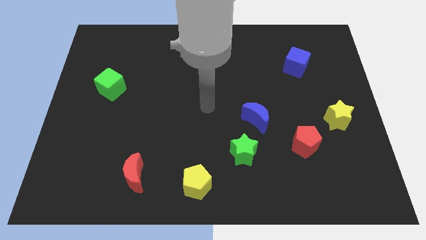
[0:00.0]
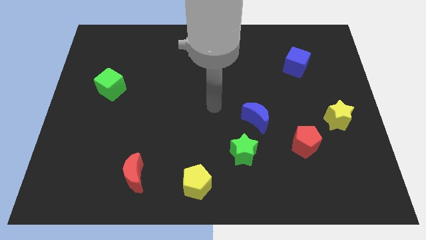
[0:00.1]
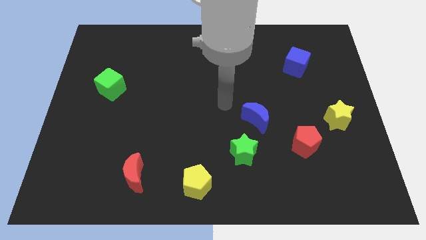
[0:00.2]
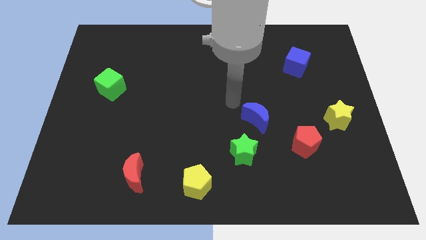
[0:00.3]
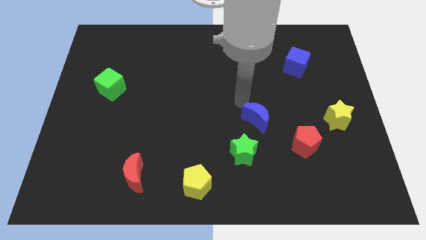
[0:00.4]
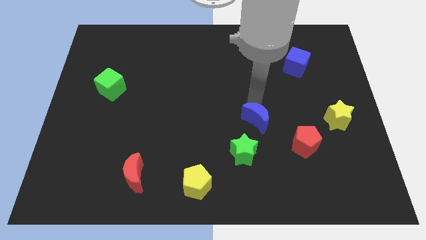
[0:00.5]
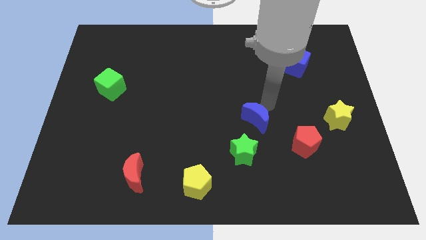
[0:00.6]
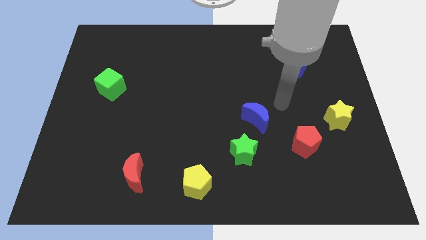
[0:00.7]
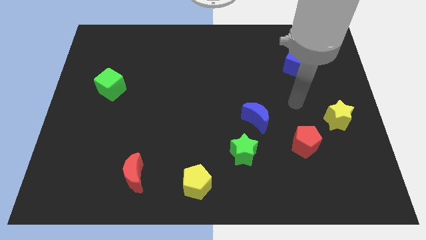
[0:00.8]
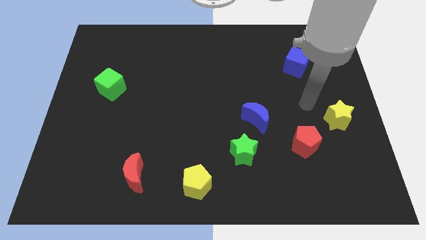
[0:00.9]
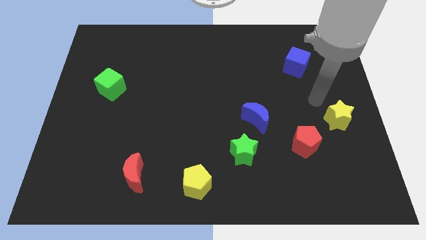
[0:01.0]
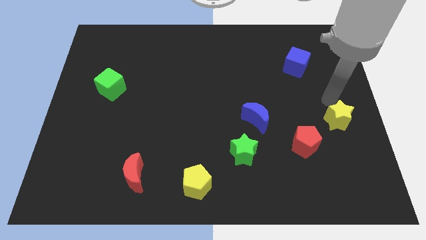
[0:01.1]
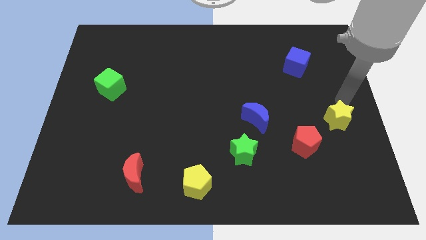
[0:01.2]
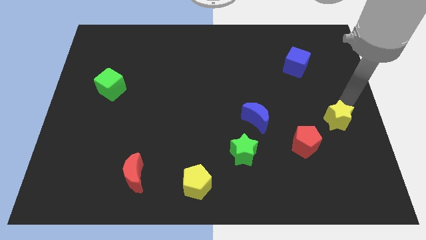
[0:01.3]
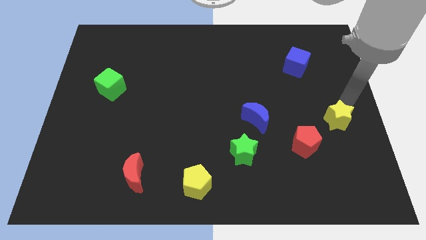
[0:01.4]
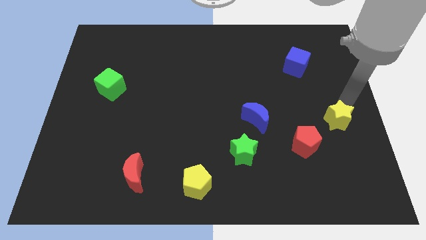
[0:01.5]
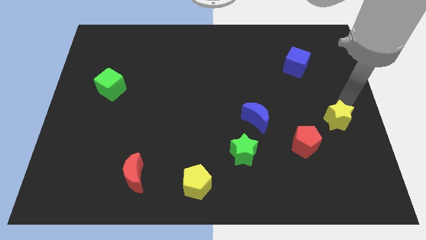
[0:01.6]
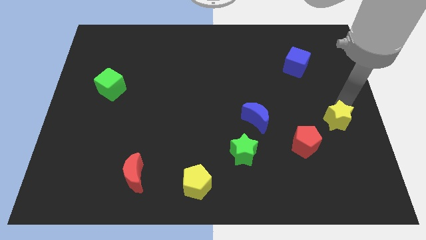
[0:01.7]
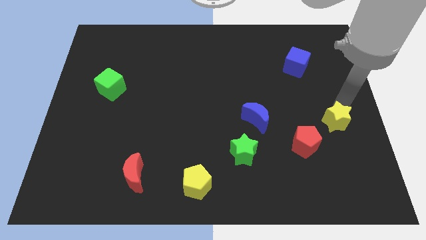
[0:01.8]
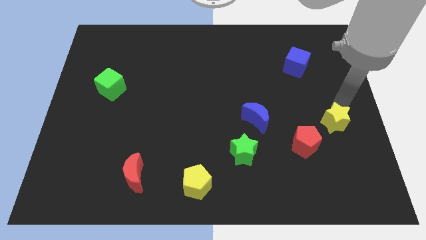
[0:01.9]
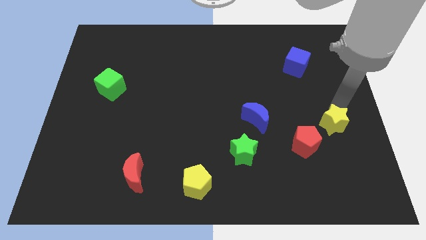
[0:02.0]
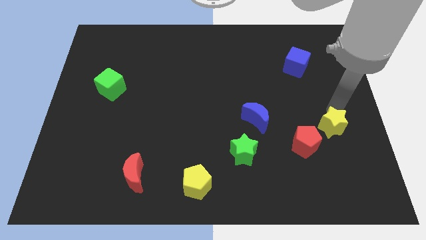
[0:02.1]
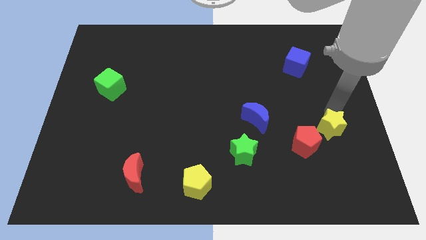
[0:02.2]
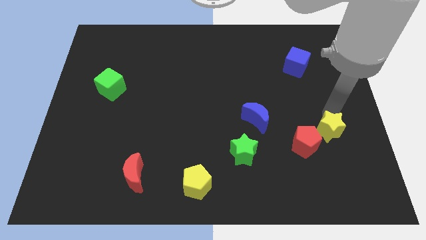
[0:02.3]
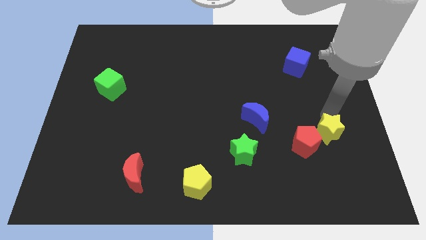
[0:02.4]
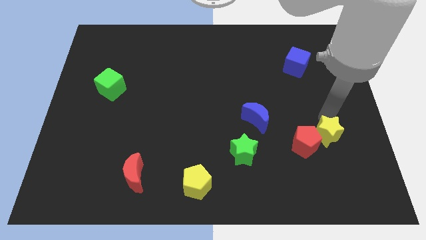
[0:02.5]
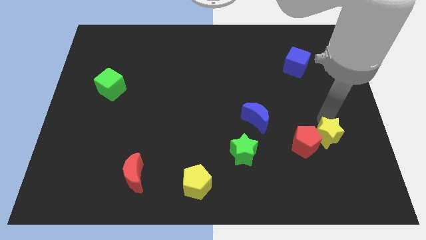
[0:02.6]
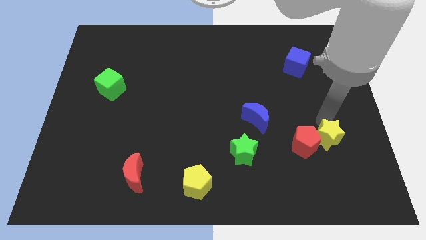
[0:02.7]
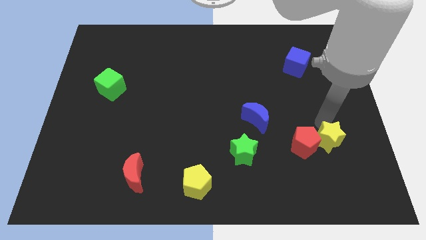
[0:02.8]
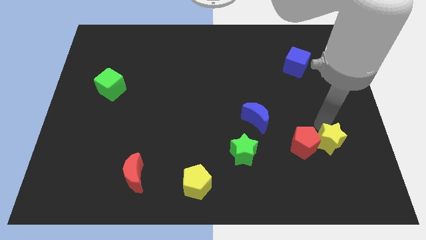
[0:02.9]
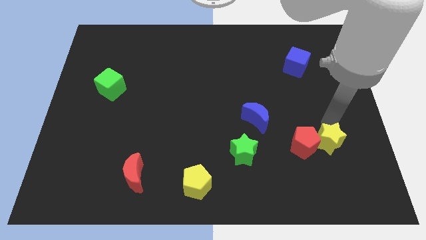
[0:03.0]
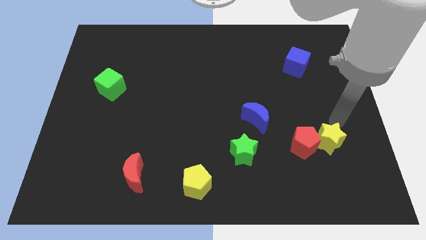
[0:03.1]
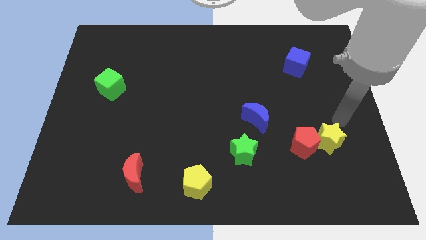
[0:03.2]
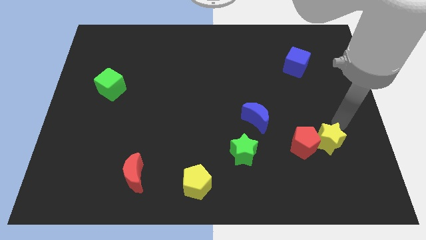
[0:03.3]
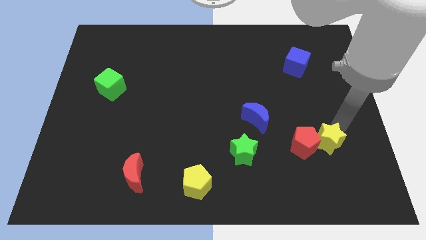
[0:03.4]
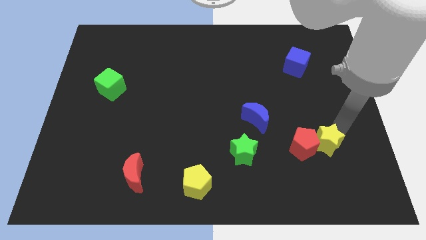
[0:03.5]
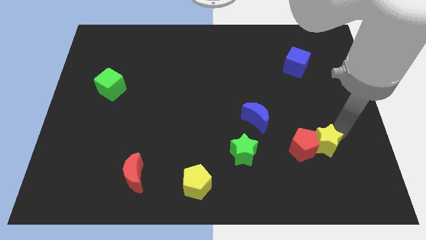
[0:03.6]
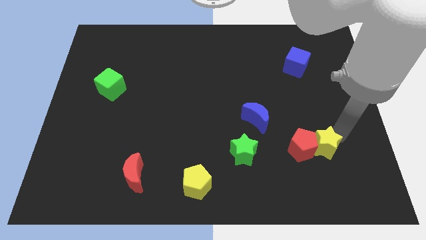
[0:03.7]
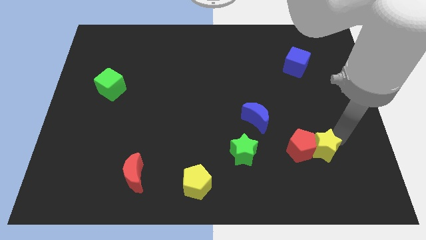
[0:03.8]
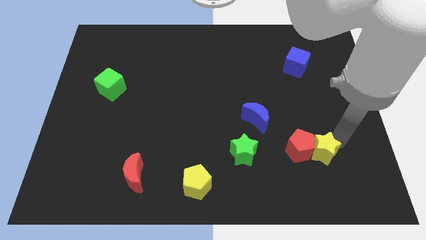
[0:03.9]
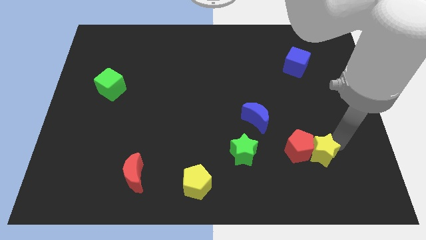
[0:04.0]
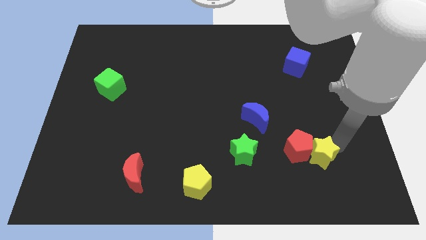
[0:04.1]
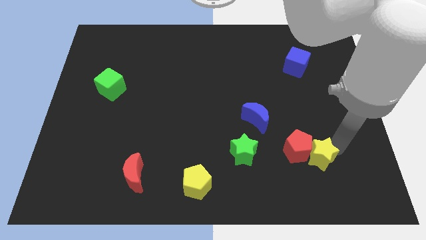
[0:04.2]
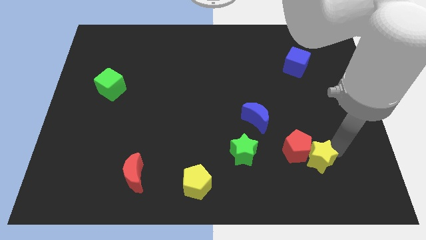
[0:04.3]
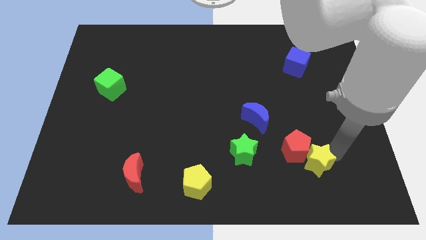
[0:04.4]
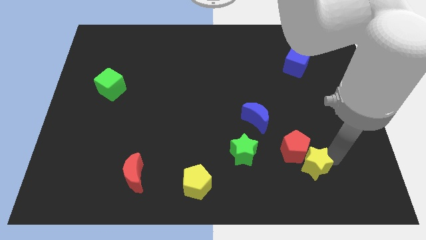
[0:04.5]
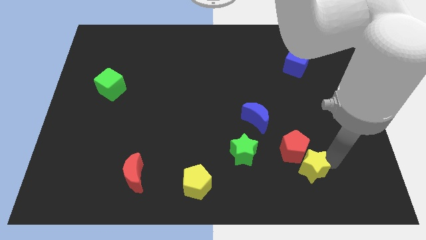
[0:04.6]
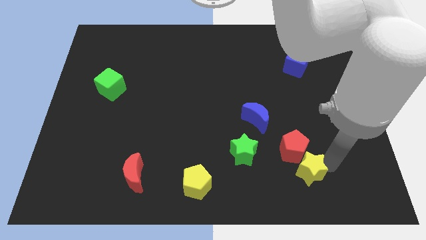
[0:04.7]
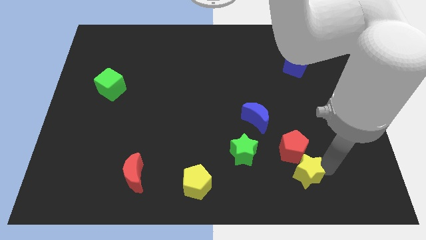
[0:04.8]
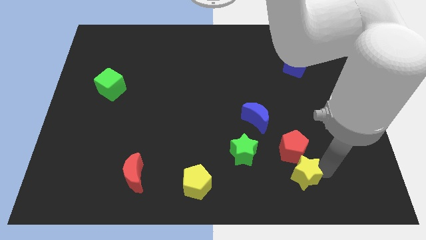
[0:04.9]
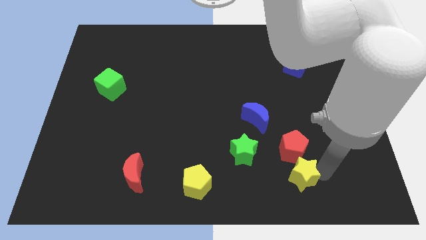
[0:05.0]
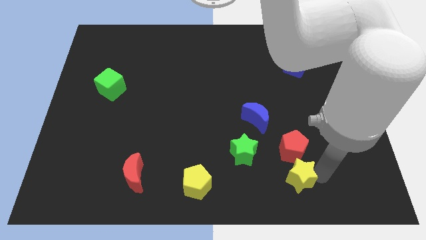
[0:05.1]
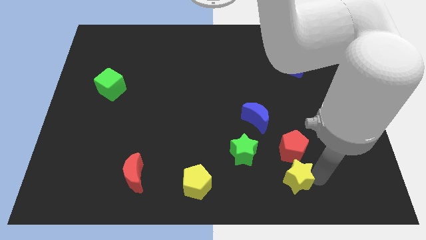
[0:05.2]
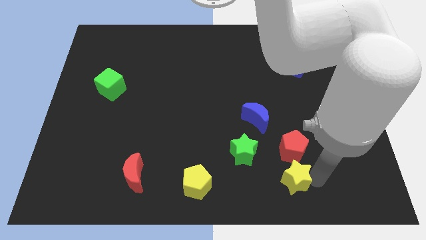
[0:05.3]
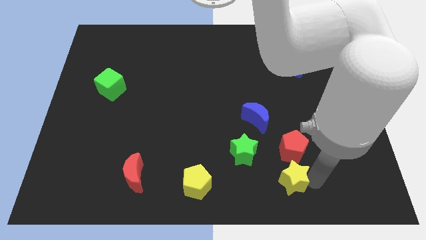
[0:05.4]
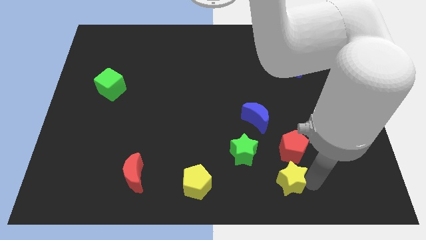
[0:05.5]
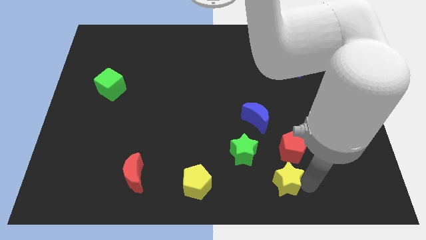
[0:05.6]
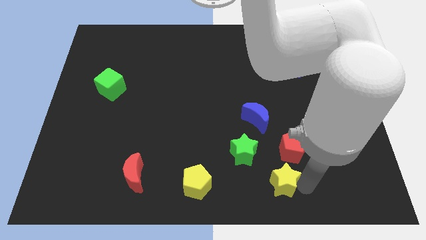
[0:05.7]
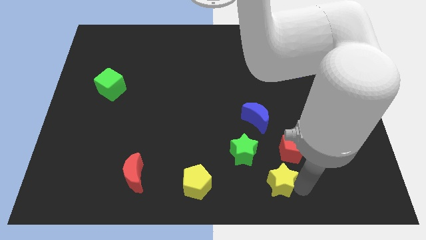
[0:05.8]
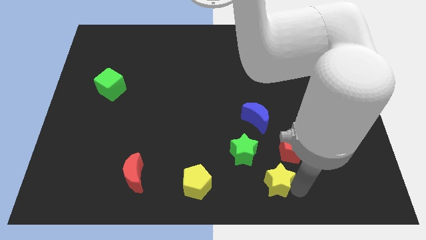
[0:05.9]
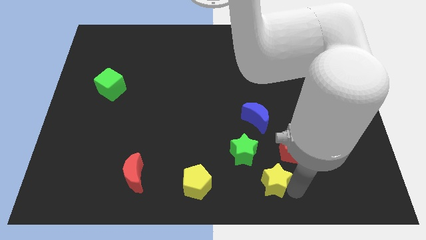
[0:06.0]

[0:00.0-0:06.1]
slide the yellow star to the bottom
